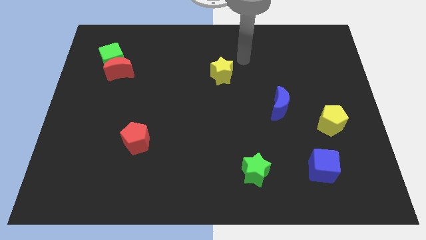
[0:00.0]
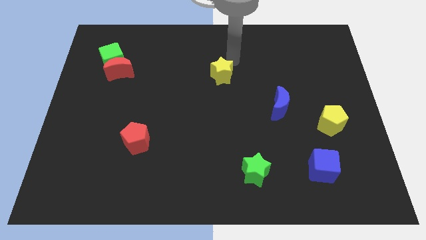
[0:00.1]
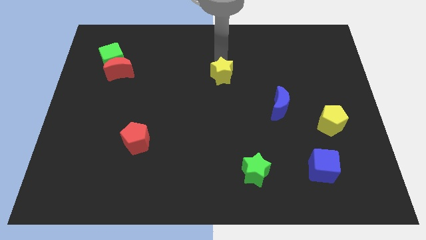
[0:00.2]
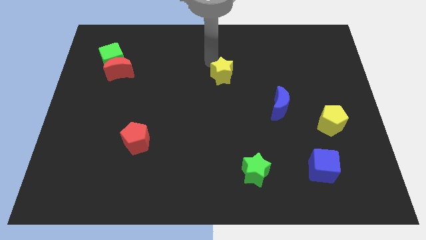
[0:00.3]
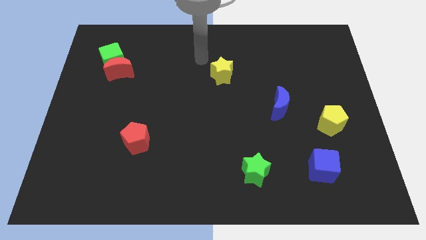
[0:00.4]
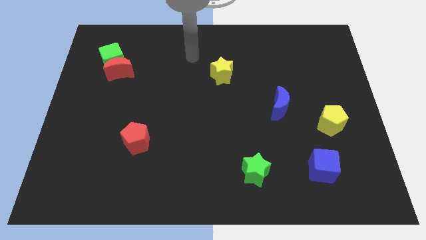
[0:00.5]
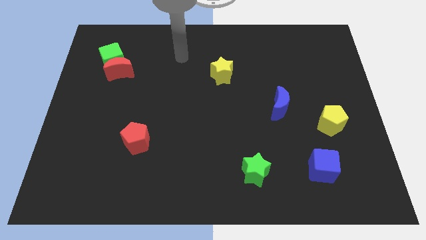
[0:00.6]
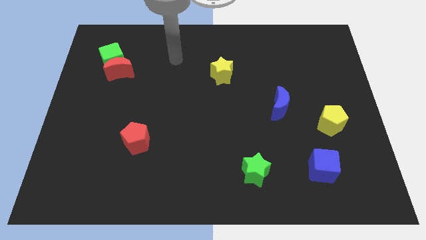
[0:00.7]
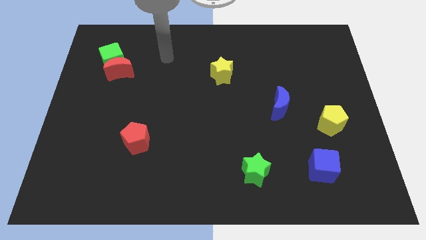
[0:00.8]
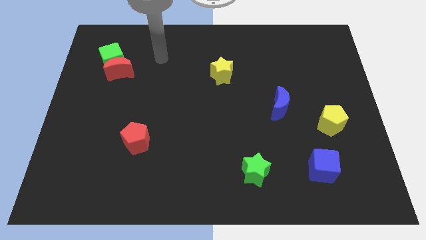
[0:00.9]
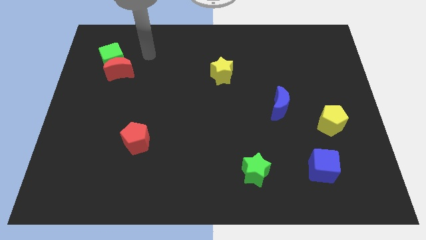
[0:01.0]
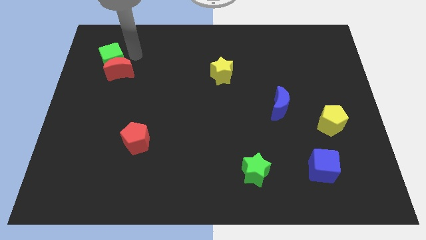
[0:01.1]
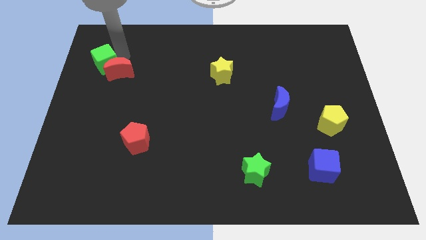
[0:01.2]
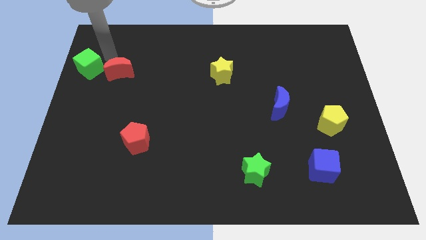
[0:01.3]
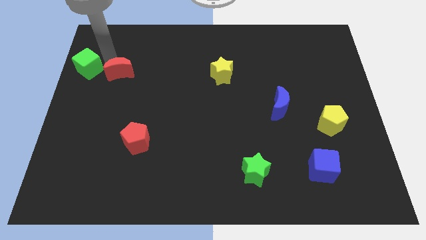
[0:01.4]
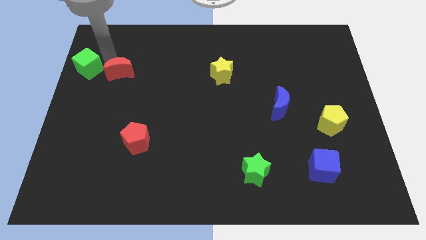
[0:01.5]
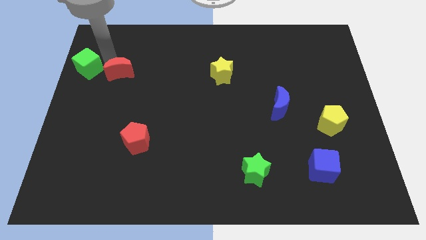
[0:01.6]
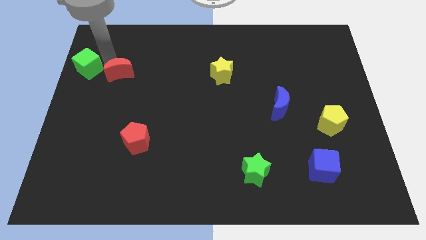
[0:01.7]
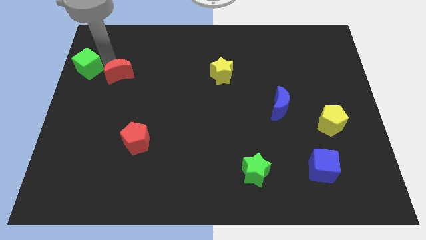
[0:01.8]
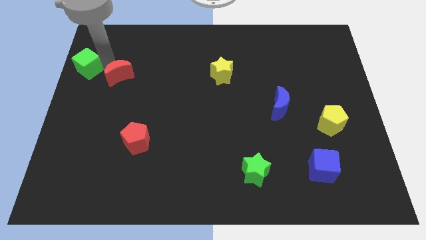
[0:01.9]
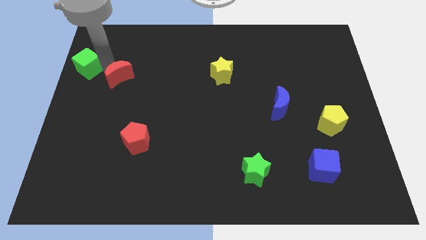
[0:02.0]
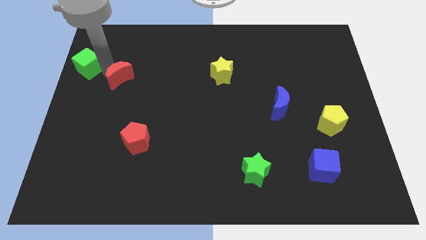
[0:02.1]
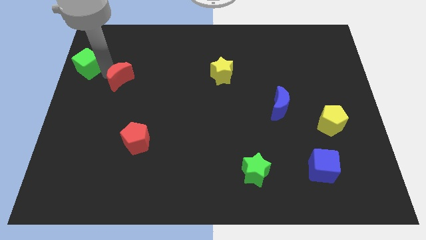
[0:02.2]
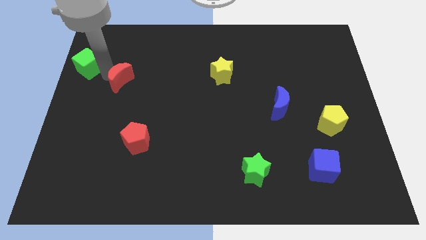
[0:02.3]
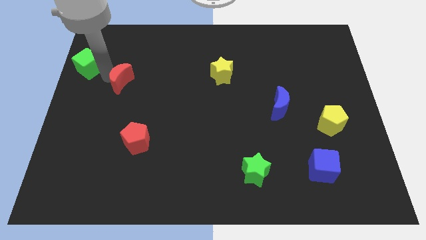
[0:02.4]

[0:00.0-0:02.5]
pull the red moon apart from the green cube

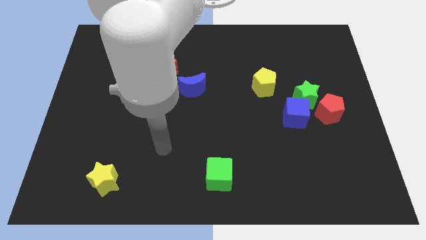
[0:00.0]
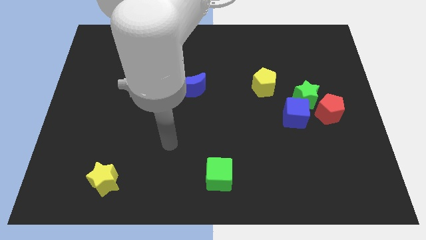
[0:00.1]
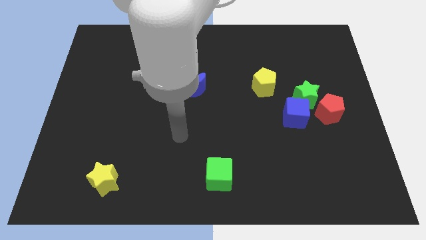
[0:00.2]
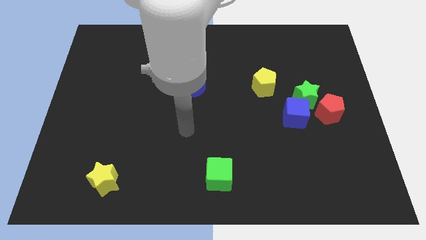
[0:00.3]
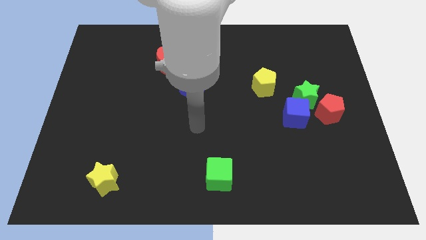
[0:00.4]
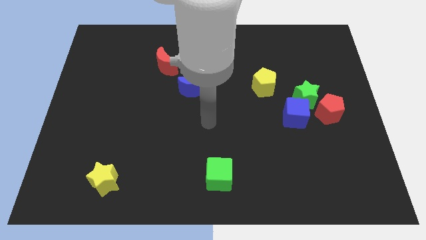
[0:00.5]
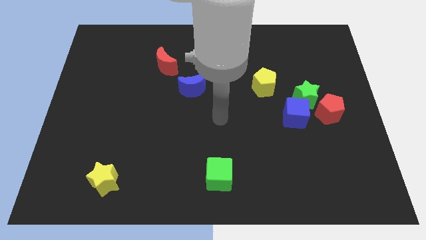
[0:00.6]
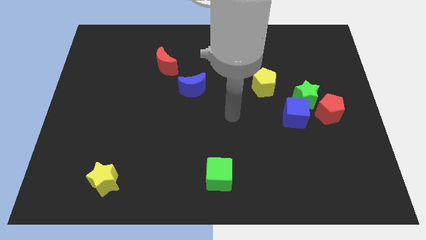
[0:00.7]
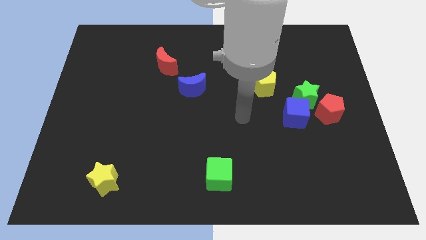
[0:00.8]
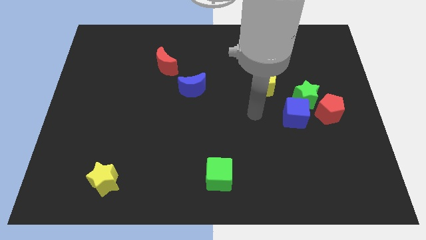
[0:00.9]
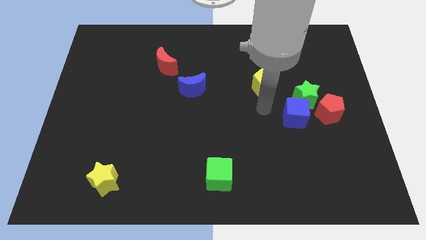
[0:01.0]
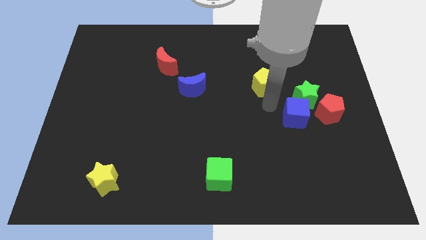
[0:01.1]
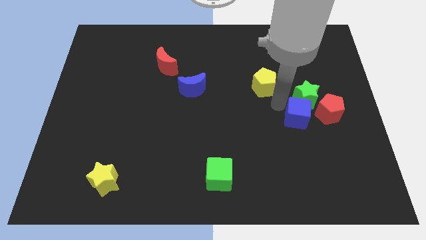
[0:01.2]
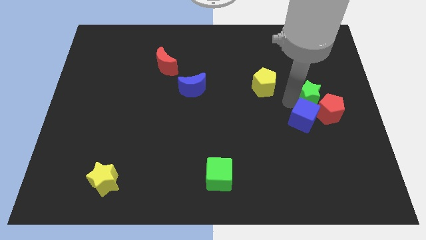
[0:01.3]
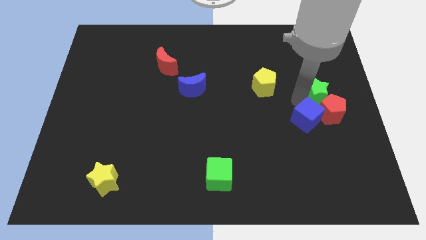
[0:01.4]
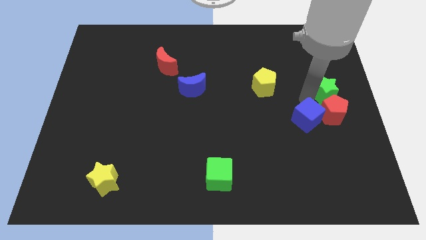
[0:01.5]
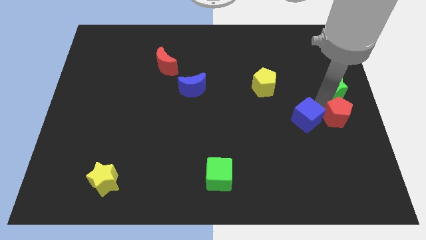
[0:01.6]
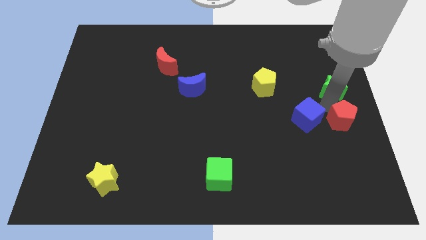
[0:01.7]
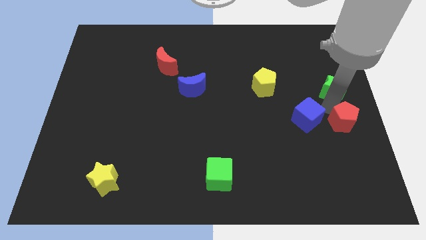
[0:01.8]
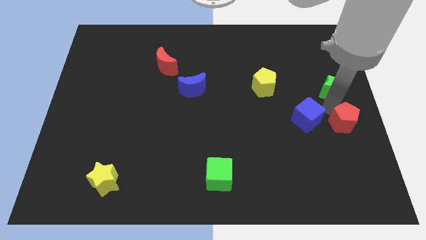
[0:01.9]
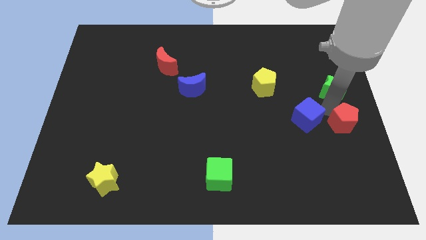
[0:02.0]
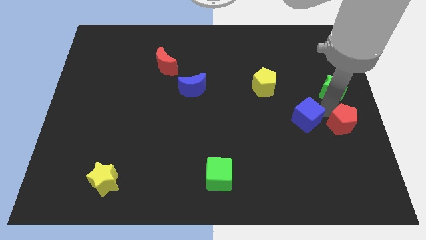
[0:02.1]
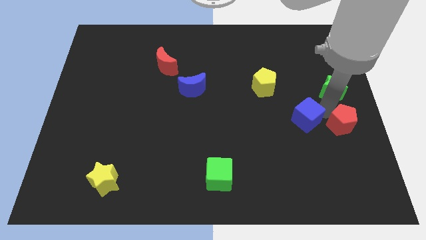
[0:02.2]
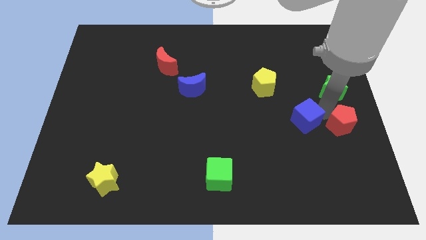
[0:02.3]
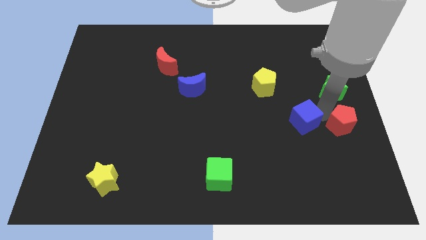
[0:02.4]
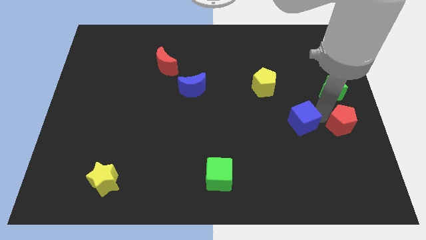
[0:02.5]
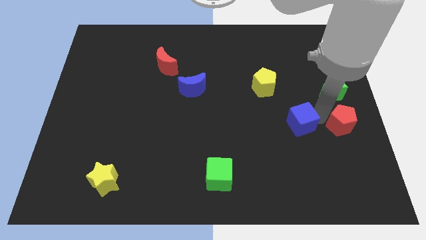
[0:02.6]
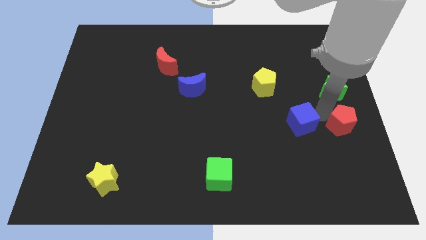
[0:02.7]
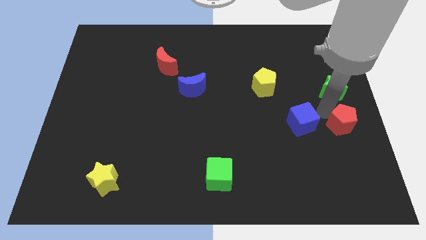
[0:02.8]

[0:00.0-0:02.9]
separate the blue cube from the green star and red pentagon

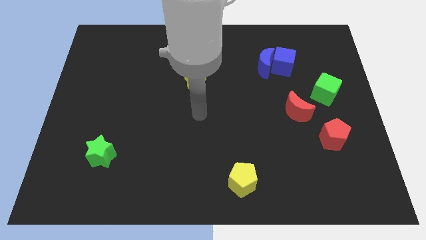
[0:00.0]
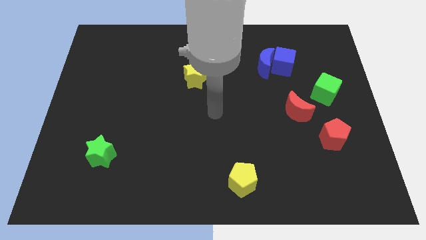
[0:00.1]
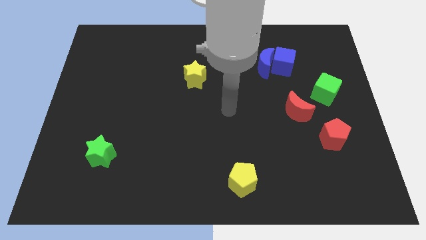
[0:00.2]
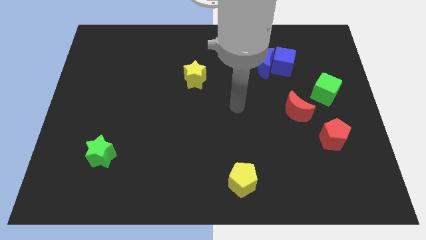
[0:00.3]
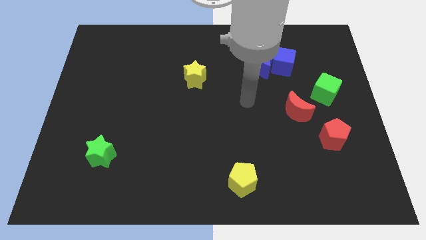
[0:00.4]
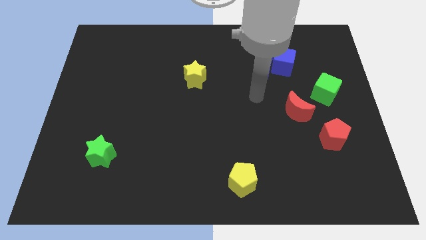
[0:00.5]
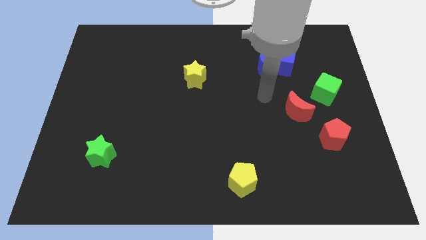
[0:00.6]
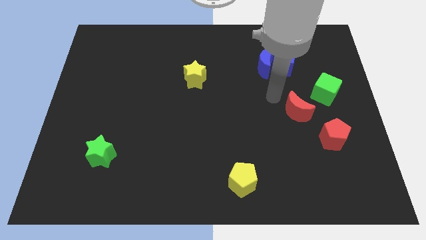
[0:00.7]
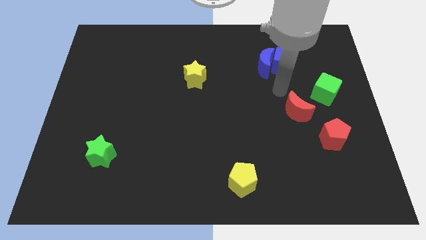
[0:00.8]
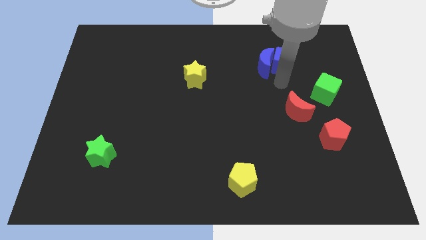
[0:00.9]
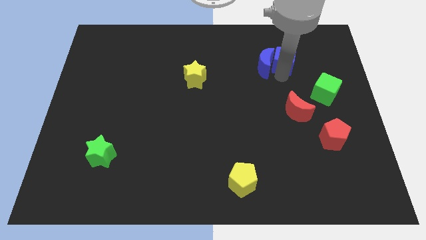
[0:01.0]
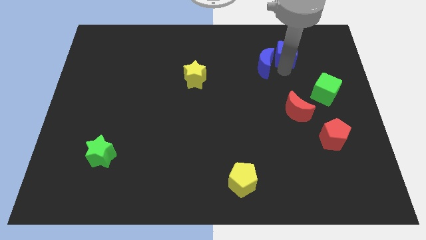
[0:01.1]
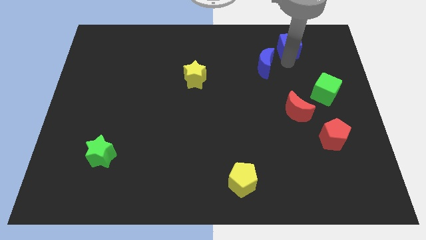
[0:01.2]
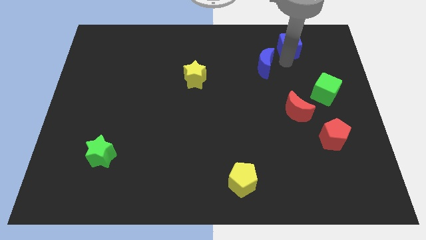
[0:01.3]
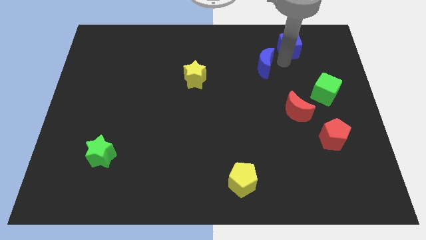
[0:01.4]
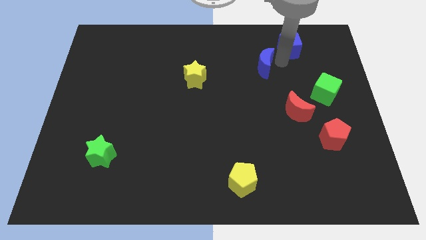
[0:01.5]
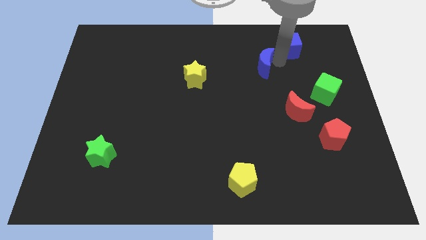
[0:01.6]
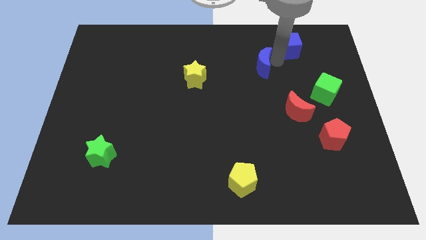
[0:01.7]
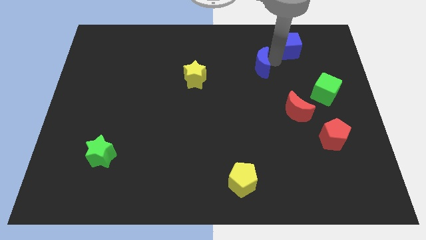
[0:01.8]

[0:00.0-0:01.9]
move the blue moon away from the blue cube

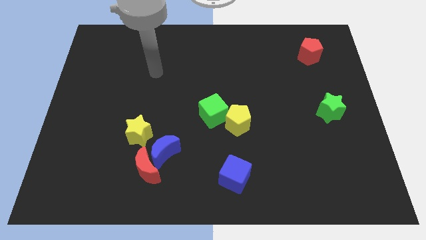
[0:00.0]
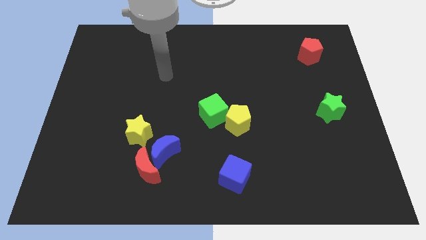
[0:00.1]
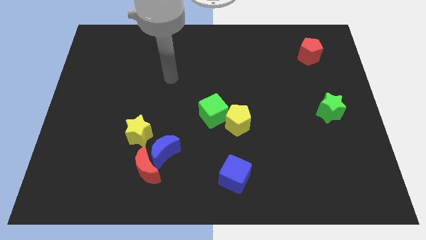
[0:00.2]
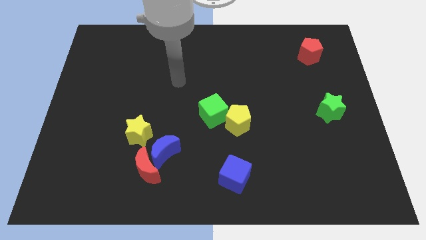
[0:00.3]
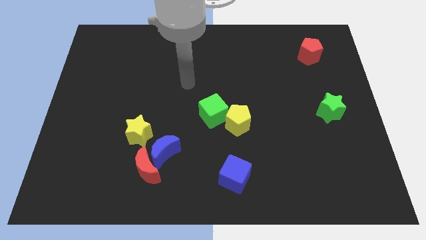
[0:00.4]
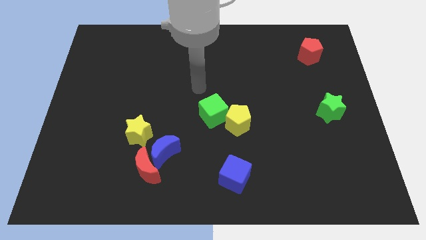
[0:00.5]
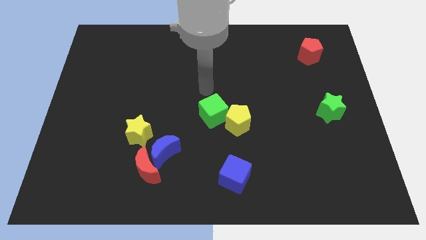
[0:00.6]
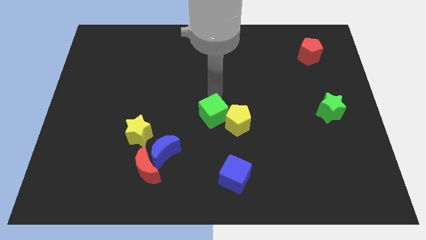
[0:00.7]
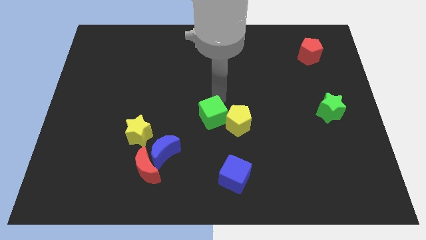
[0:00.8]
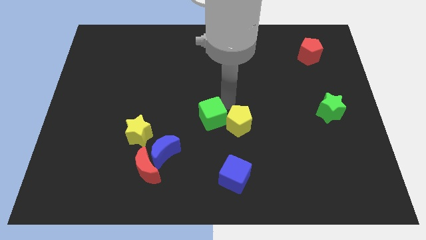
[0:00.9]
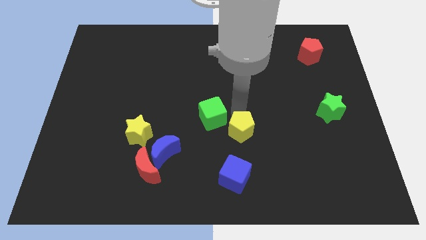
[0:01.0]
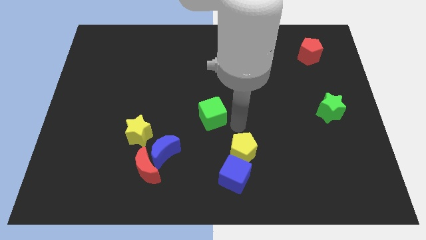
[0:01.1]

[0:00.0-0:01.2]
move the green cube away from the yellow pentagon

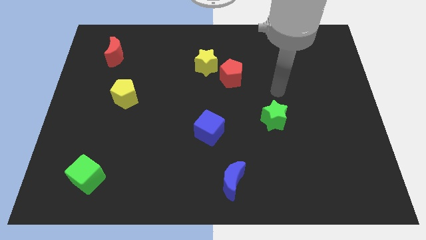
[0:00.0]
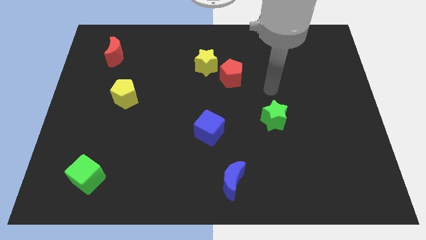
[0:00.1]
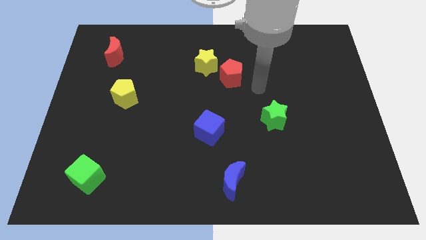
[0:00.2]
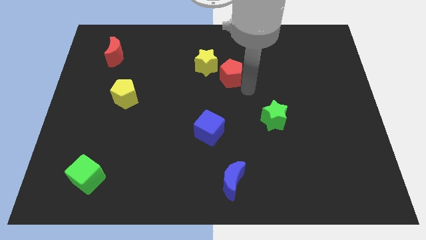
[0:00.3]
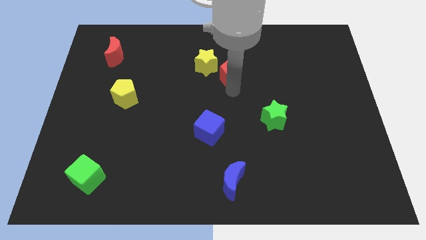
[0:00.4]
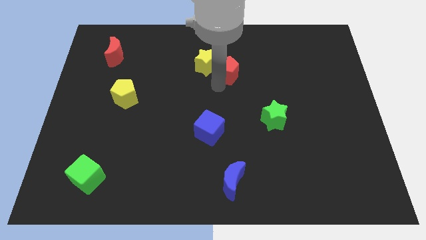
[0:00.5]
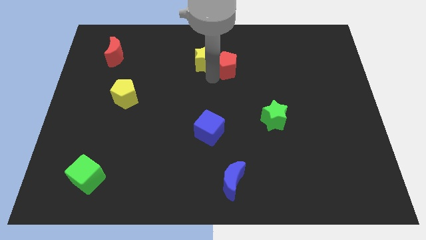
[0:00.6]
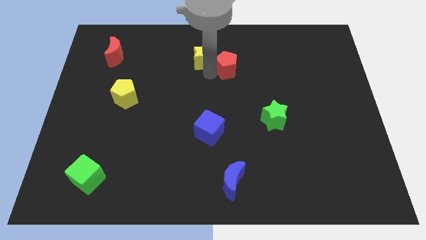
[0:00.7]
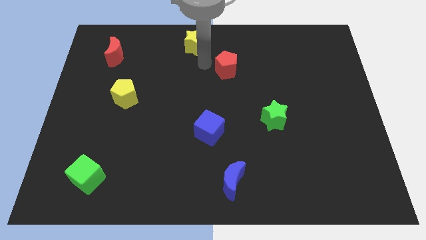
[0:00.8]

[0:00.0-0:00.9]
separate the red pentagon from the yellow star
